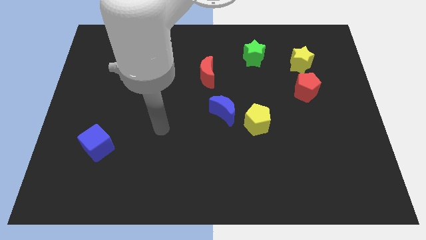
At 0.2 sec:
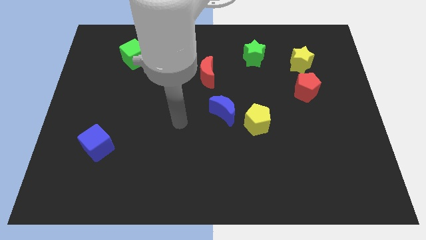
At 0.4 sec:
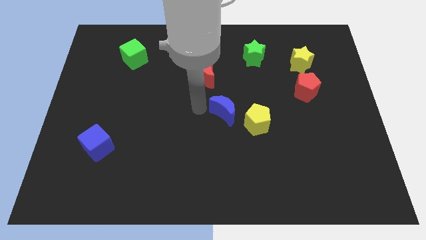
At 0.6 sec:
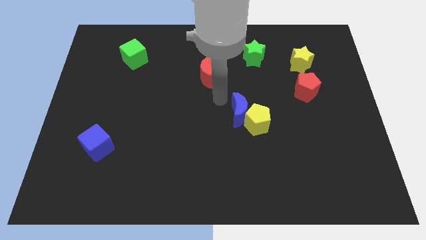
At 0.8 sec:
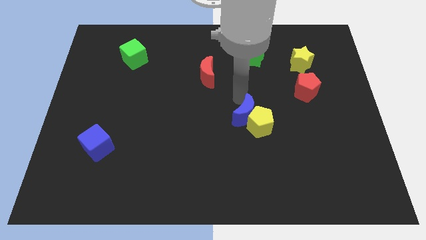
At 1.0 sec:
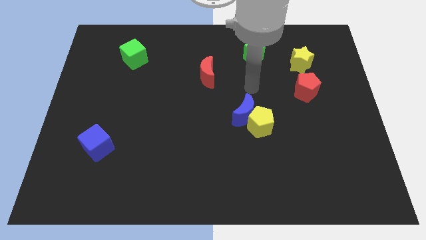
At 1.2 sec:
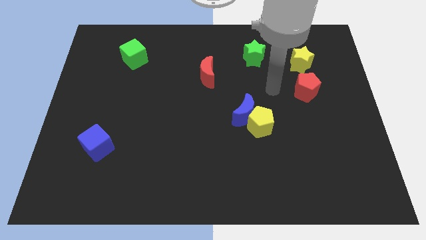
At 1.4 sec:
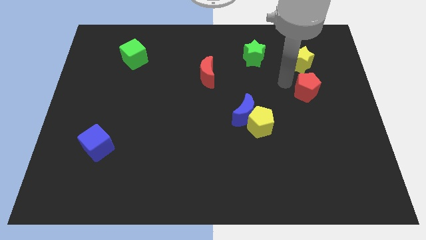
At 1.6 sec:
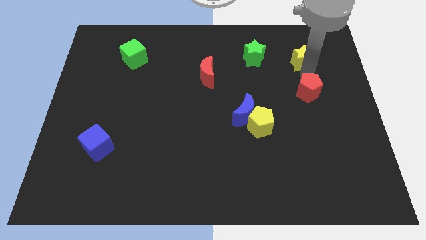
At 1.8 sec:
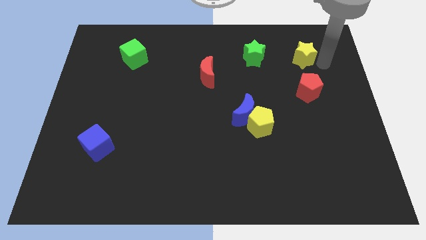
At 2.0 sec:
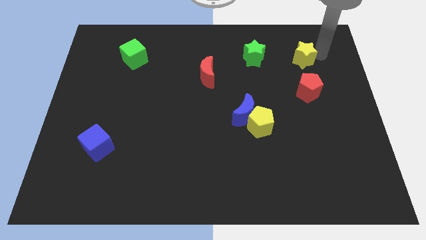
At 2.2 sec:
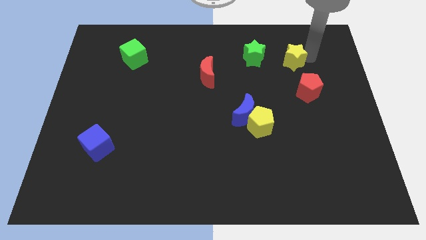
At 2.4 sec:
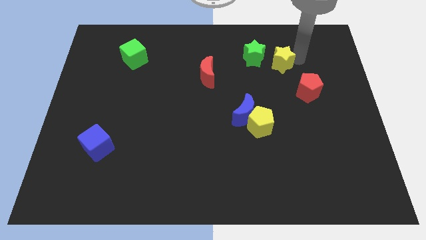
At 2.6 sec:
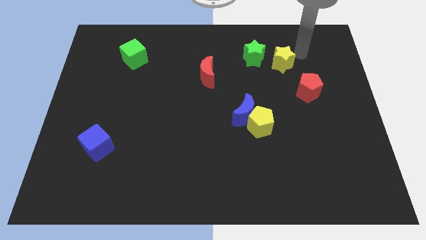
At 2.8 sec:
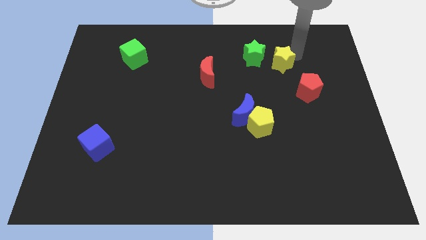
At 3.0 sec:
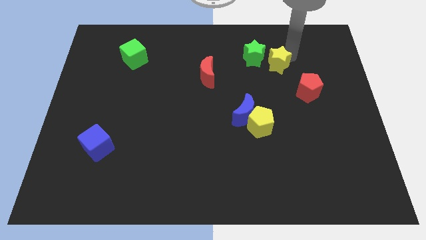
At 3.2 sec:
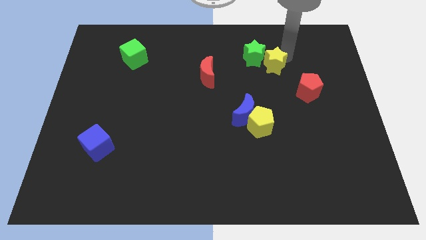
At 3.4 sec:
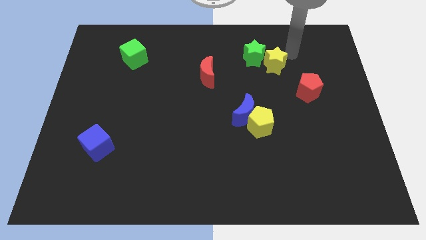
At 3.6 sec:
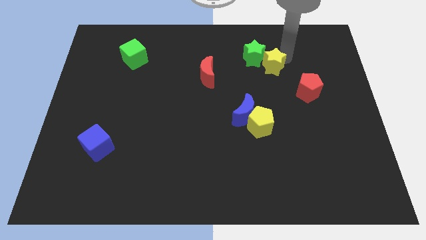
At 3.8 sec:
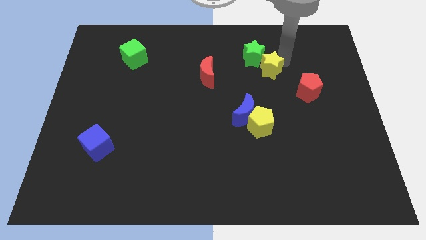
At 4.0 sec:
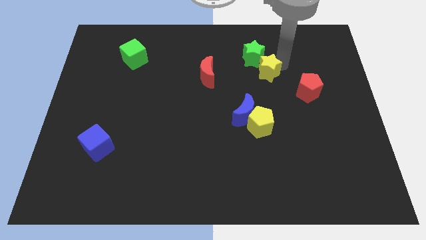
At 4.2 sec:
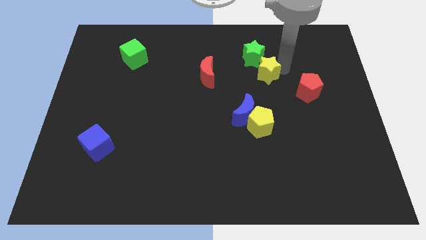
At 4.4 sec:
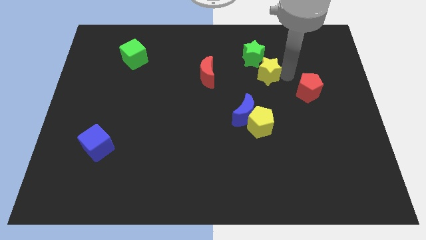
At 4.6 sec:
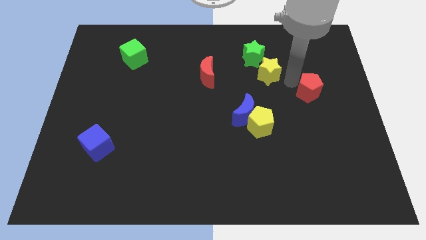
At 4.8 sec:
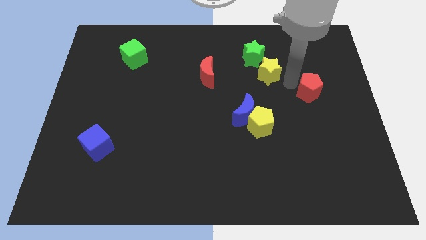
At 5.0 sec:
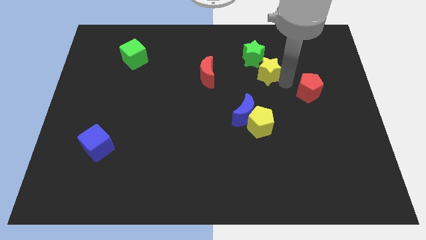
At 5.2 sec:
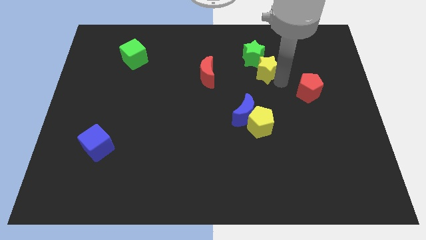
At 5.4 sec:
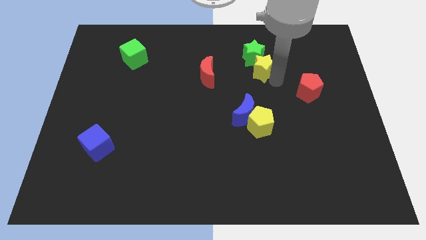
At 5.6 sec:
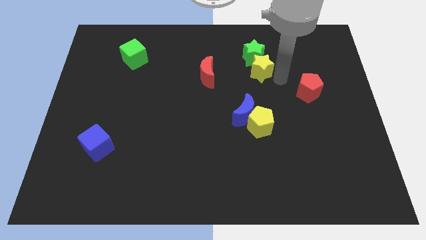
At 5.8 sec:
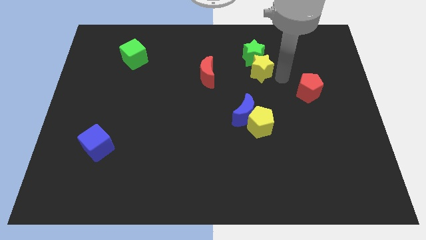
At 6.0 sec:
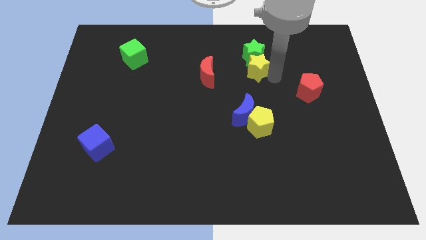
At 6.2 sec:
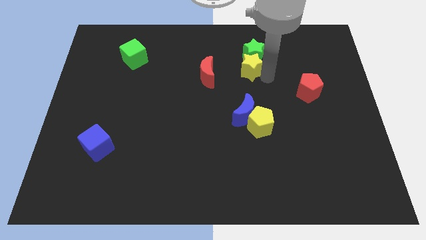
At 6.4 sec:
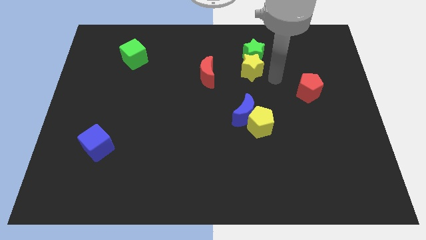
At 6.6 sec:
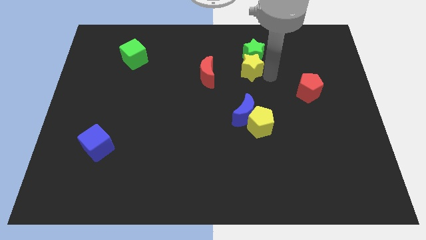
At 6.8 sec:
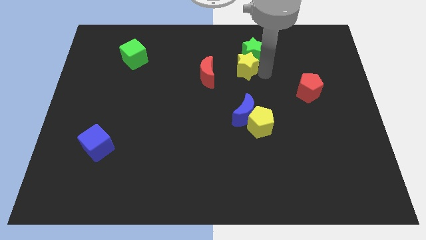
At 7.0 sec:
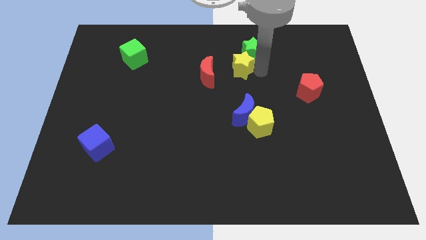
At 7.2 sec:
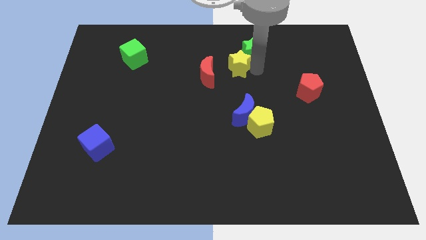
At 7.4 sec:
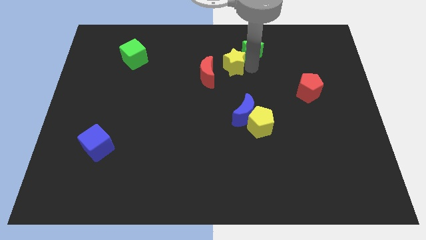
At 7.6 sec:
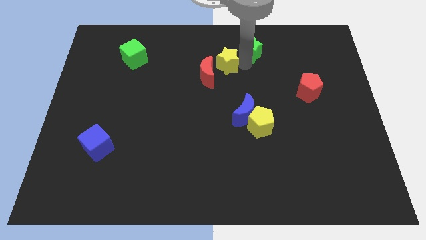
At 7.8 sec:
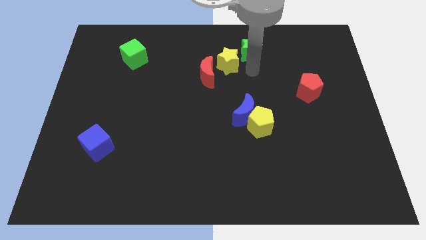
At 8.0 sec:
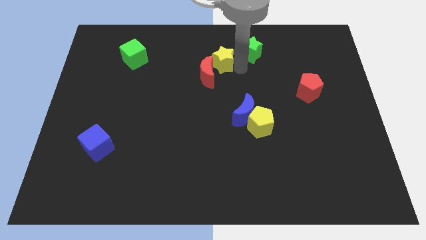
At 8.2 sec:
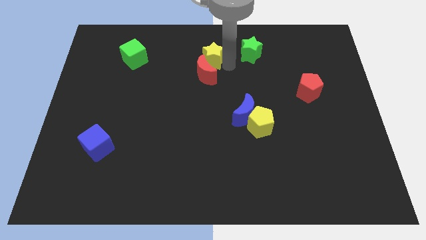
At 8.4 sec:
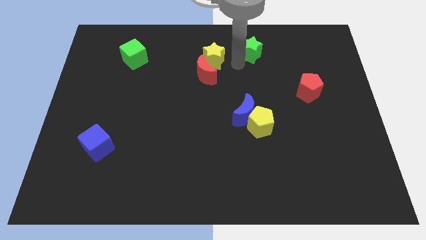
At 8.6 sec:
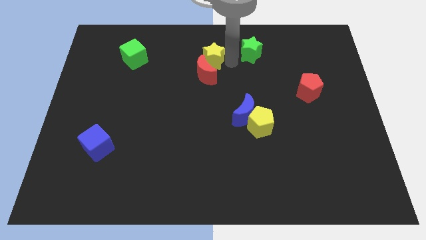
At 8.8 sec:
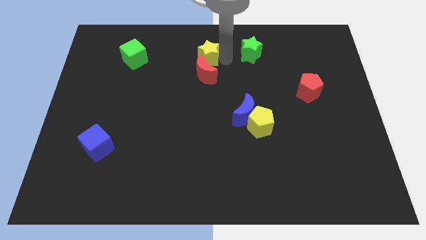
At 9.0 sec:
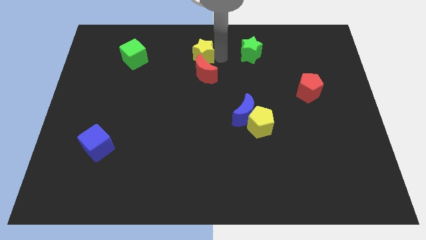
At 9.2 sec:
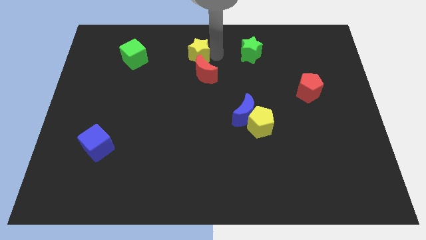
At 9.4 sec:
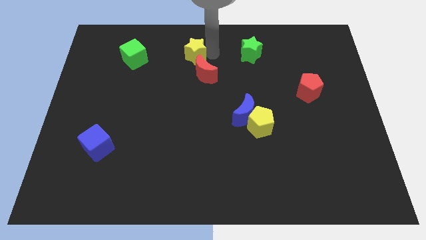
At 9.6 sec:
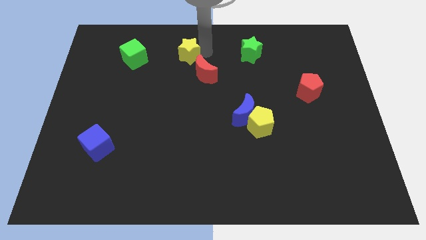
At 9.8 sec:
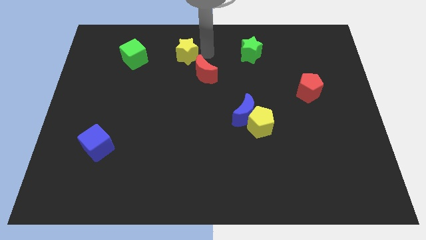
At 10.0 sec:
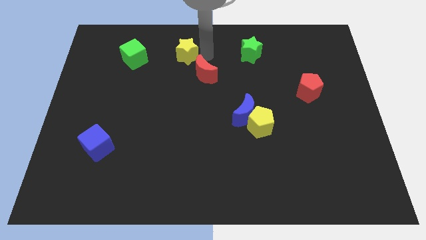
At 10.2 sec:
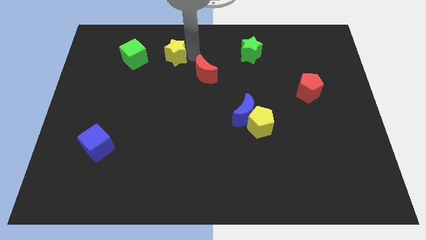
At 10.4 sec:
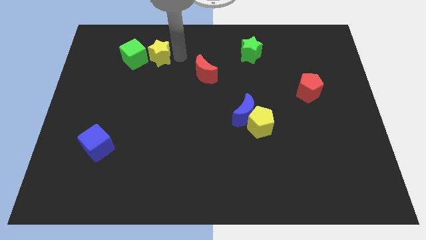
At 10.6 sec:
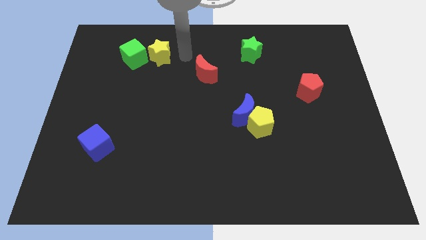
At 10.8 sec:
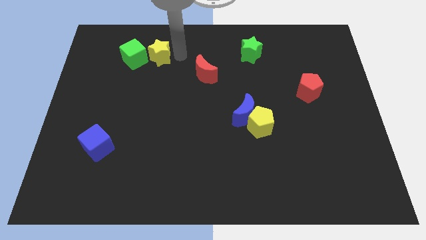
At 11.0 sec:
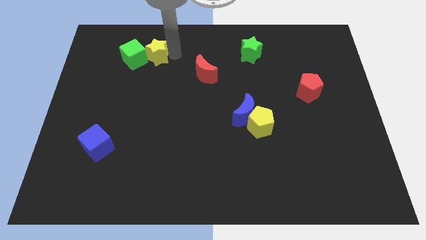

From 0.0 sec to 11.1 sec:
slide the yellow star to the green cube

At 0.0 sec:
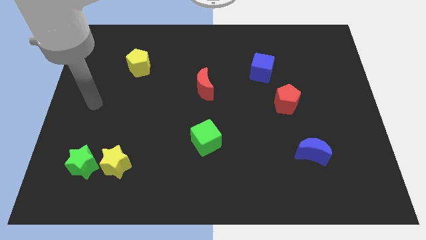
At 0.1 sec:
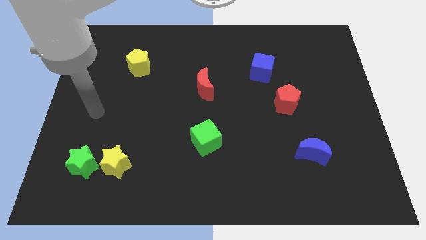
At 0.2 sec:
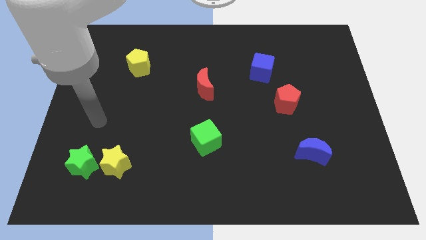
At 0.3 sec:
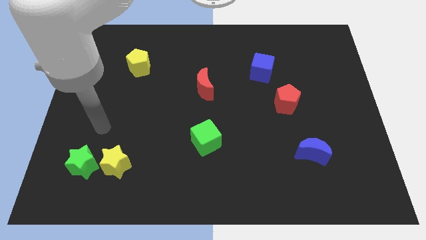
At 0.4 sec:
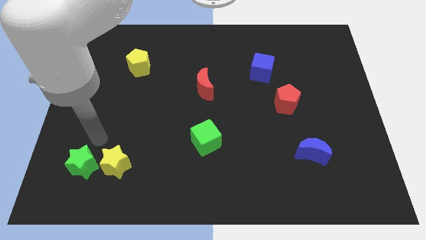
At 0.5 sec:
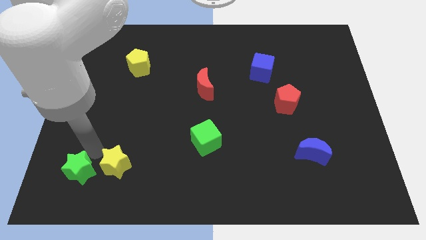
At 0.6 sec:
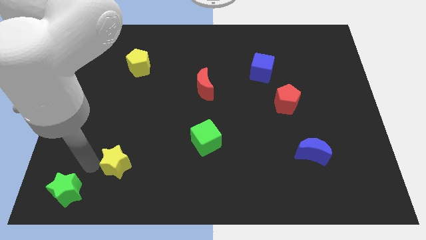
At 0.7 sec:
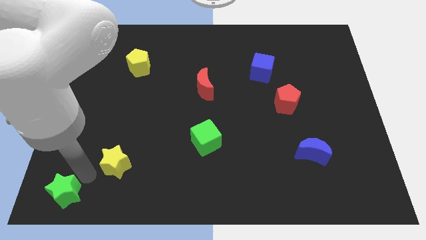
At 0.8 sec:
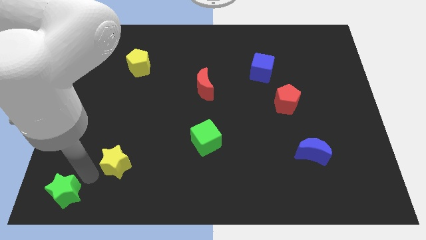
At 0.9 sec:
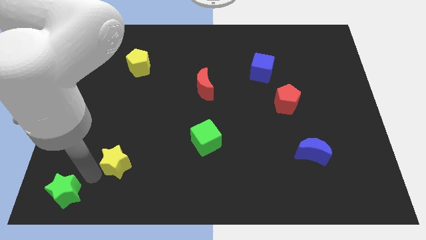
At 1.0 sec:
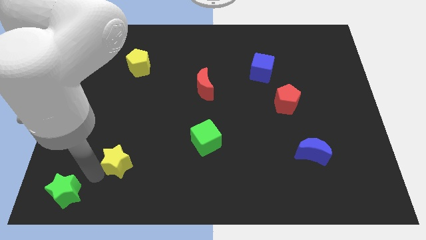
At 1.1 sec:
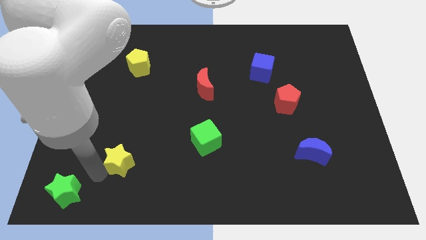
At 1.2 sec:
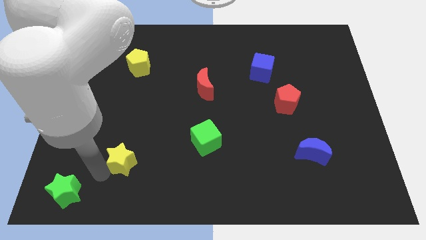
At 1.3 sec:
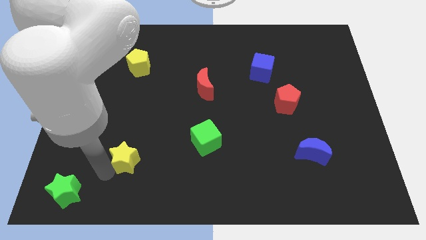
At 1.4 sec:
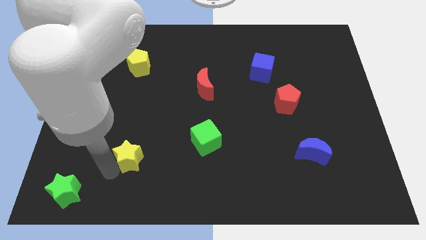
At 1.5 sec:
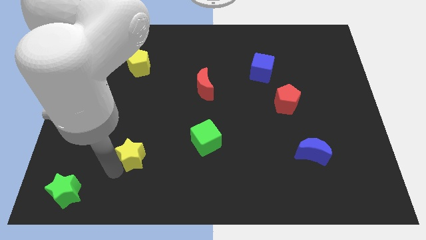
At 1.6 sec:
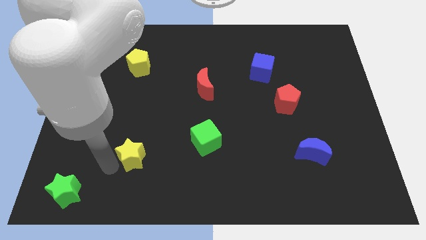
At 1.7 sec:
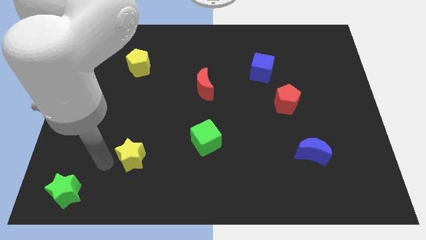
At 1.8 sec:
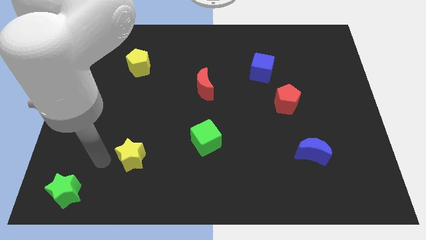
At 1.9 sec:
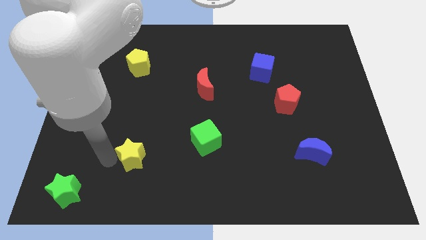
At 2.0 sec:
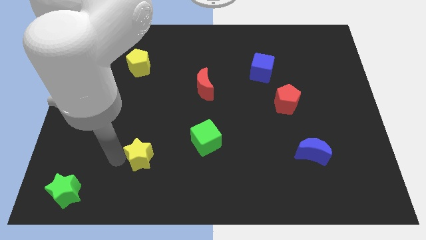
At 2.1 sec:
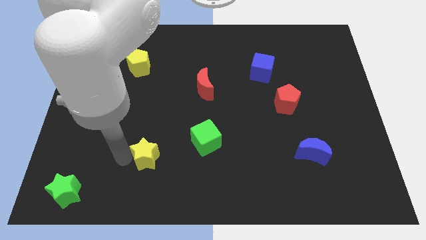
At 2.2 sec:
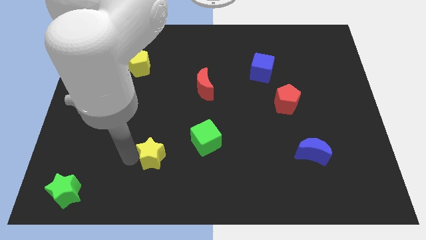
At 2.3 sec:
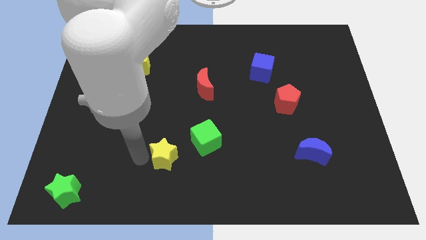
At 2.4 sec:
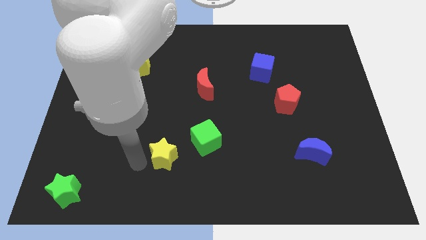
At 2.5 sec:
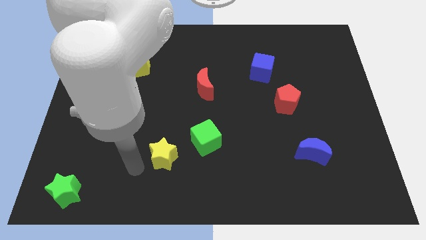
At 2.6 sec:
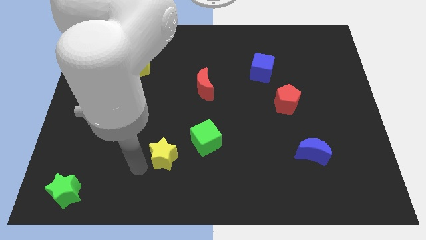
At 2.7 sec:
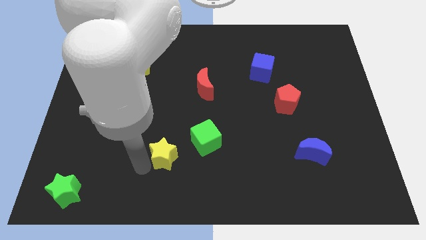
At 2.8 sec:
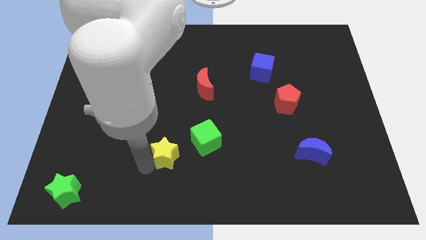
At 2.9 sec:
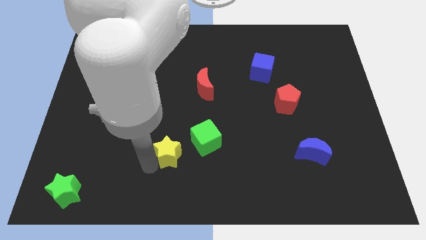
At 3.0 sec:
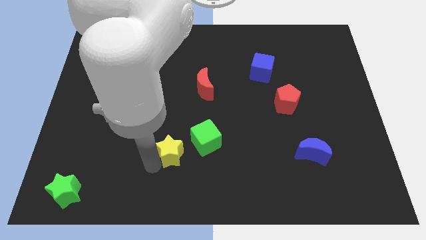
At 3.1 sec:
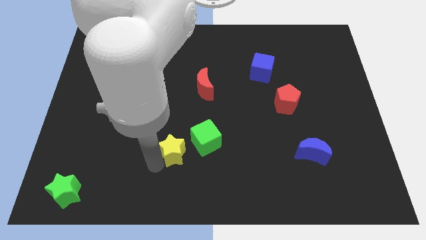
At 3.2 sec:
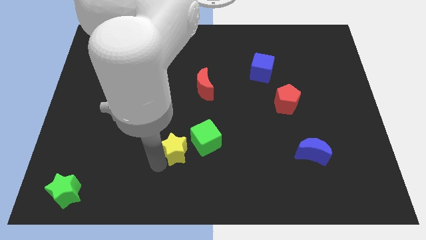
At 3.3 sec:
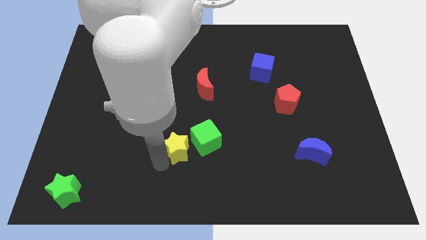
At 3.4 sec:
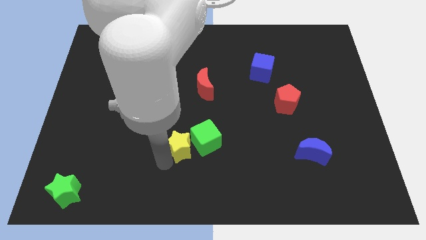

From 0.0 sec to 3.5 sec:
move the yellow star to the green cube
